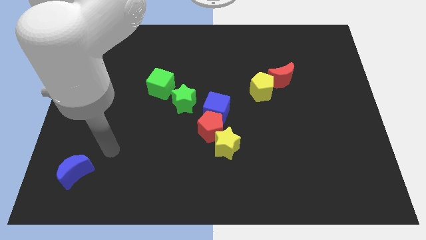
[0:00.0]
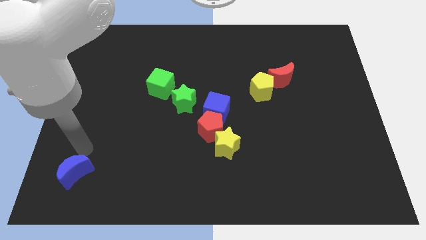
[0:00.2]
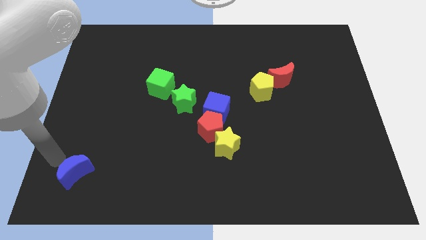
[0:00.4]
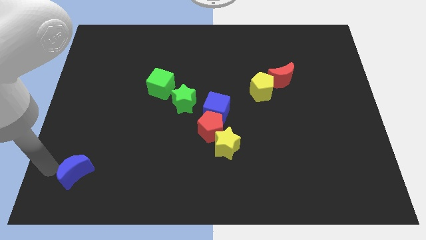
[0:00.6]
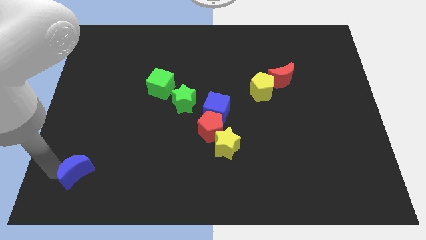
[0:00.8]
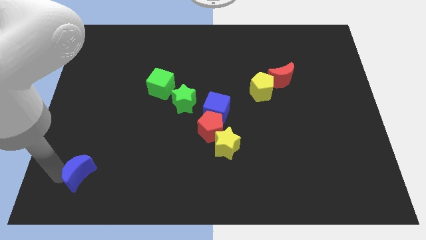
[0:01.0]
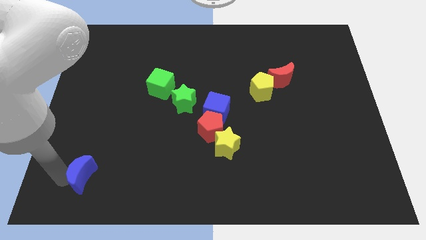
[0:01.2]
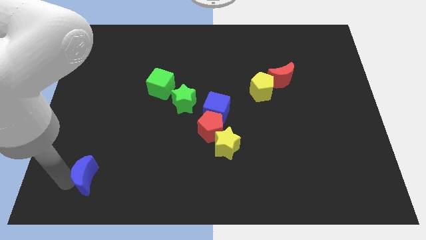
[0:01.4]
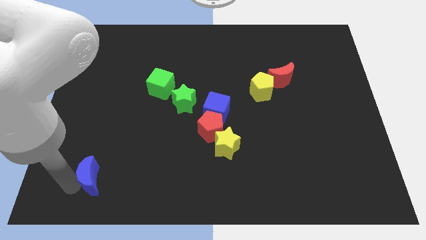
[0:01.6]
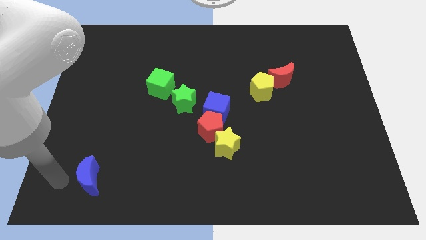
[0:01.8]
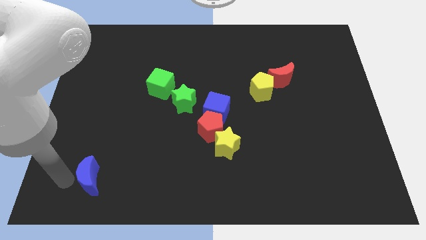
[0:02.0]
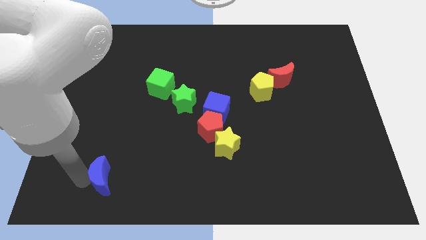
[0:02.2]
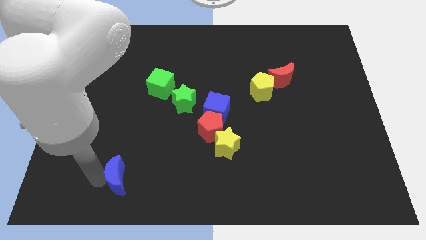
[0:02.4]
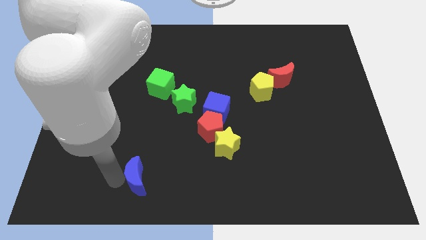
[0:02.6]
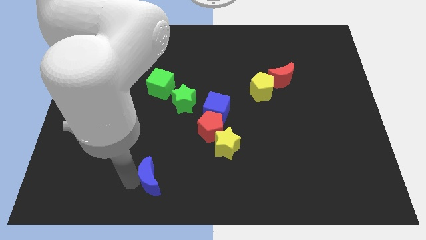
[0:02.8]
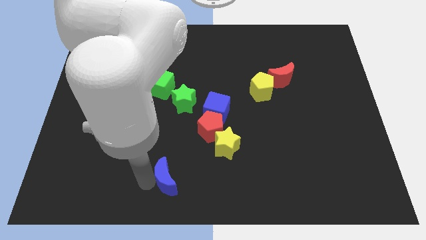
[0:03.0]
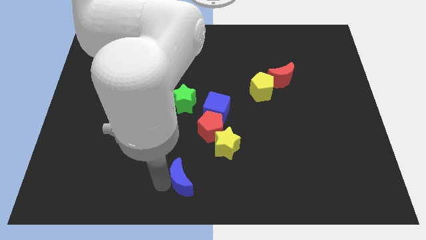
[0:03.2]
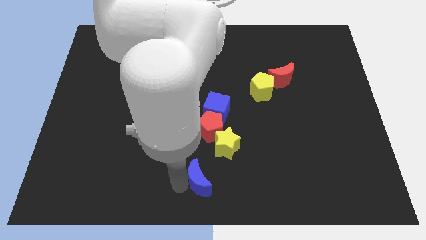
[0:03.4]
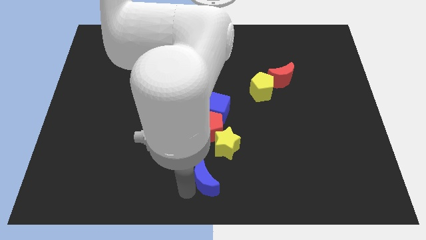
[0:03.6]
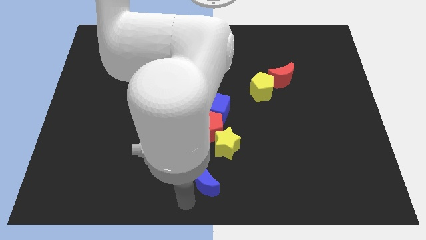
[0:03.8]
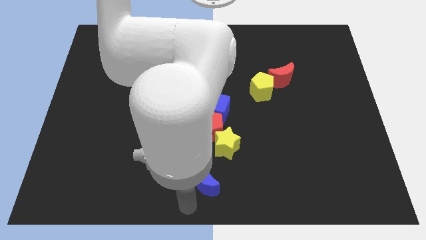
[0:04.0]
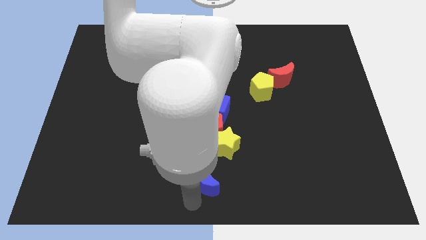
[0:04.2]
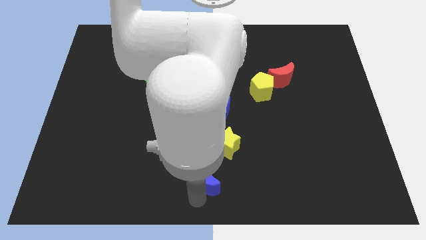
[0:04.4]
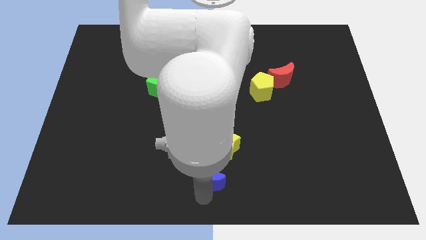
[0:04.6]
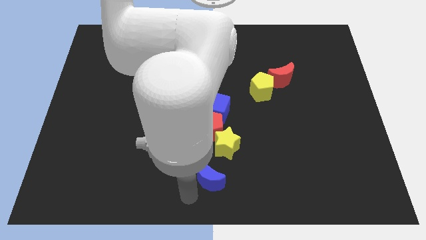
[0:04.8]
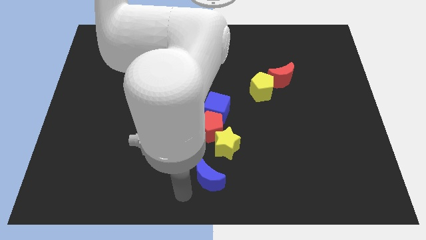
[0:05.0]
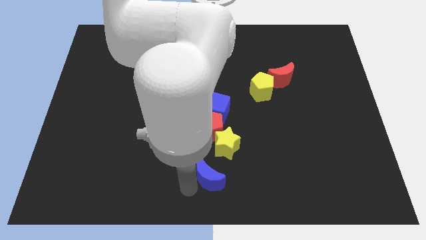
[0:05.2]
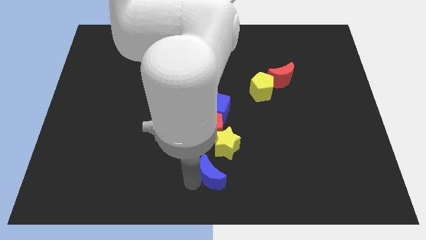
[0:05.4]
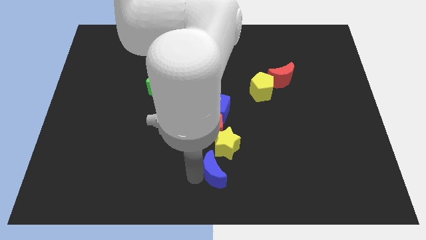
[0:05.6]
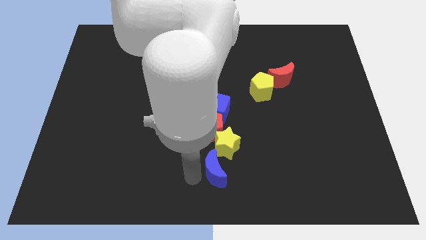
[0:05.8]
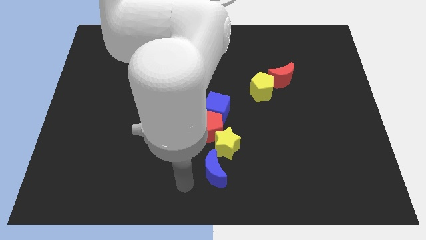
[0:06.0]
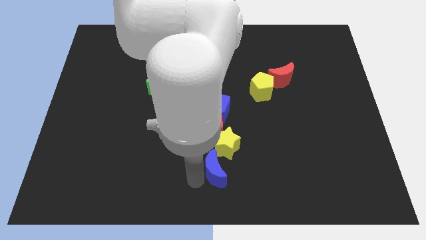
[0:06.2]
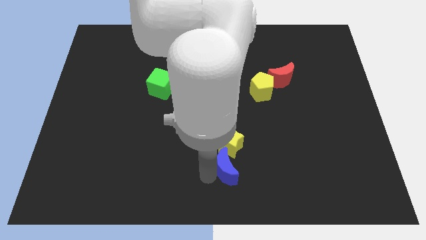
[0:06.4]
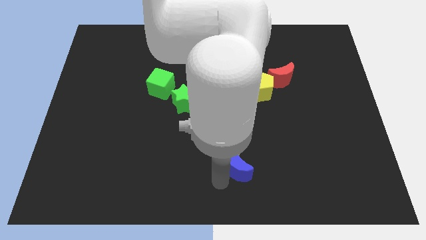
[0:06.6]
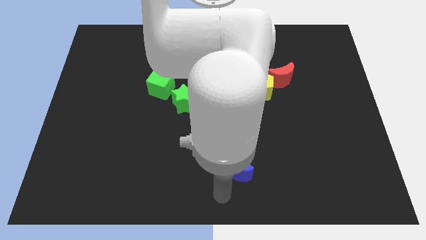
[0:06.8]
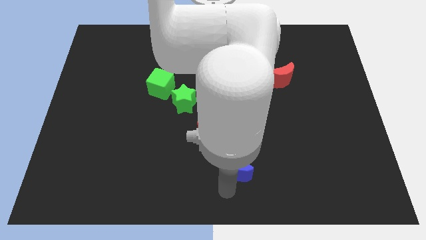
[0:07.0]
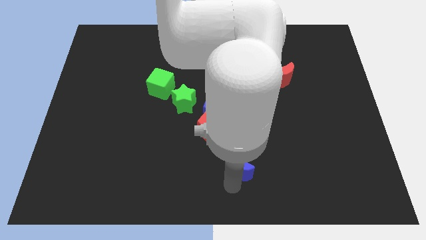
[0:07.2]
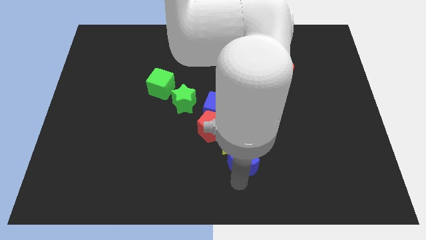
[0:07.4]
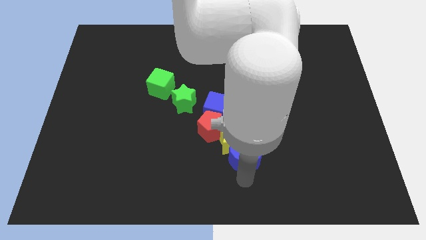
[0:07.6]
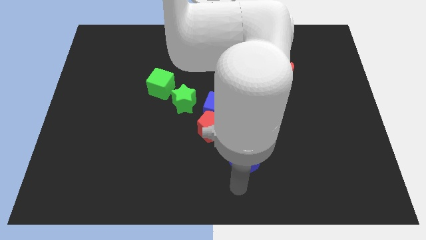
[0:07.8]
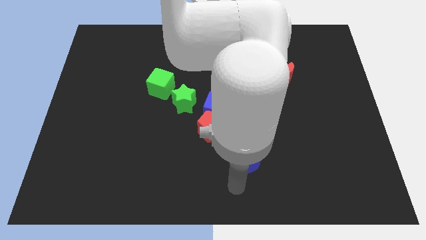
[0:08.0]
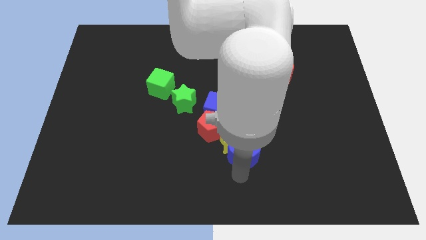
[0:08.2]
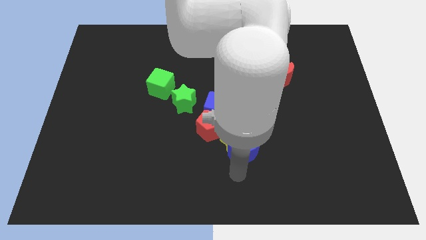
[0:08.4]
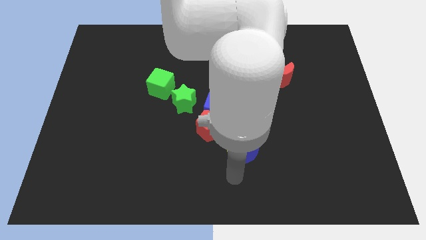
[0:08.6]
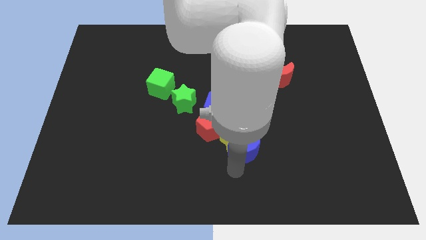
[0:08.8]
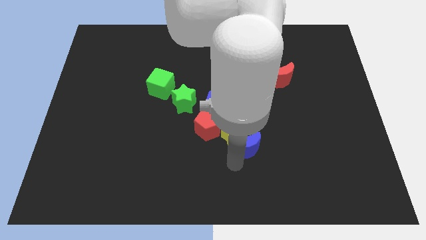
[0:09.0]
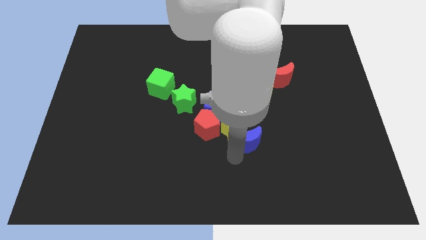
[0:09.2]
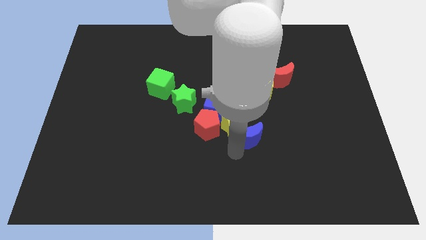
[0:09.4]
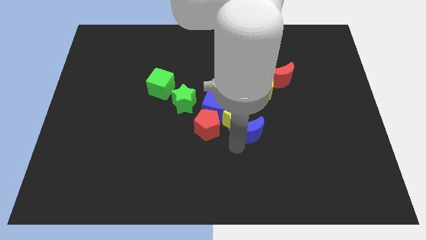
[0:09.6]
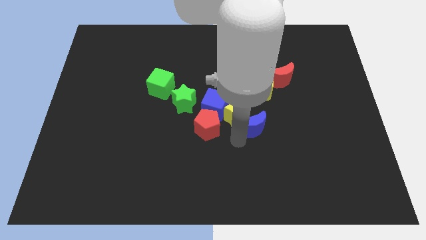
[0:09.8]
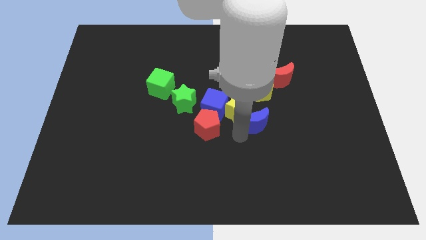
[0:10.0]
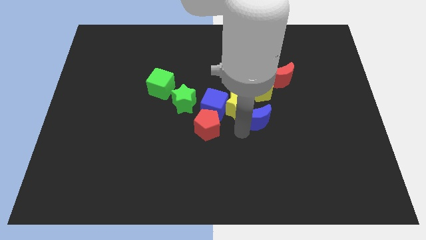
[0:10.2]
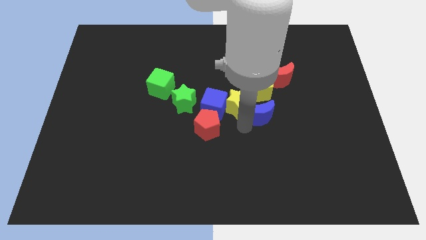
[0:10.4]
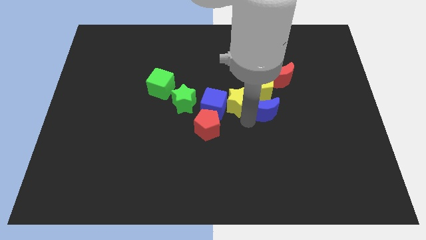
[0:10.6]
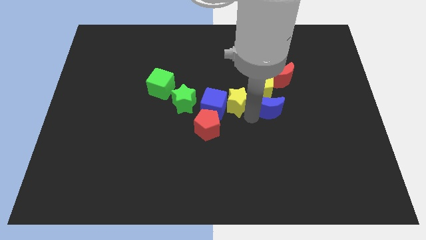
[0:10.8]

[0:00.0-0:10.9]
push the blue moon close to the yellow pentagon

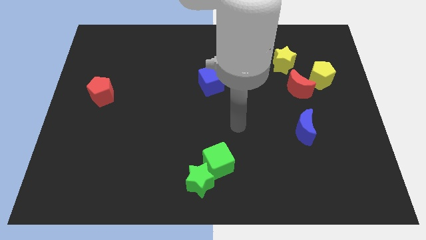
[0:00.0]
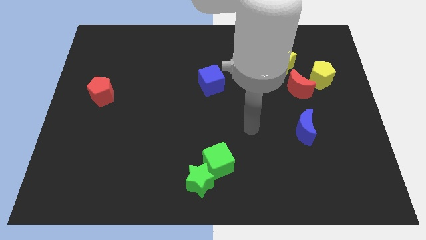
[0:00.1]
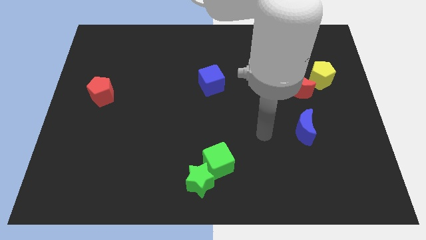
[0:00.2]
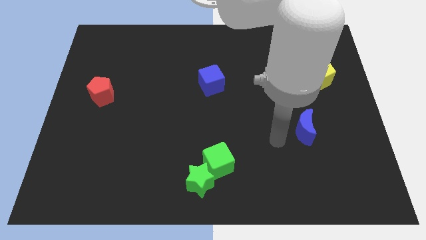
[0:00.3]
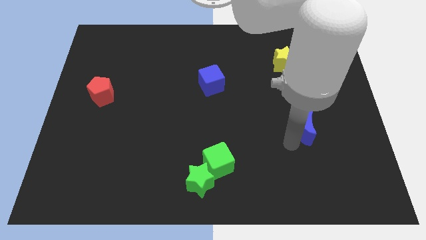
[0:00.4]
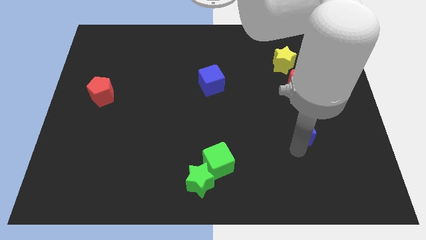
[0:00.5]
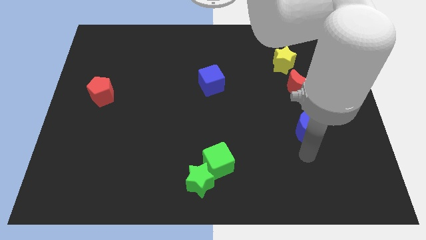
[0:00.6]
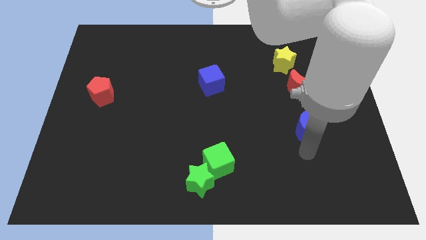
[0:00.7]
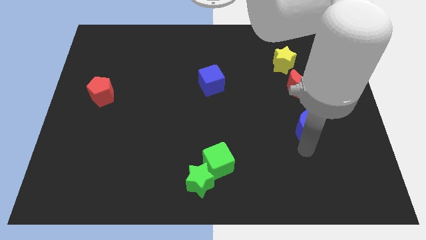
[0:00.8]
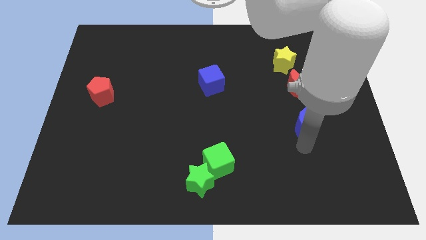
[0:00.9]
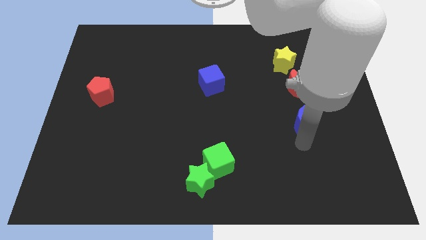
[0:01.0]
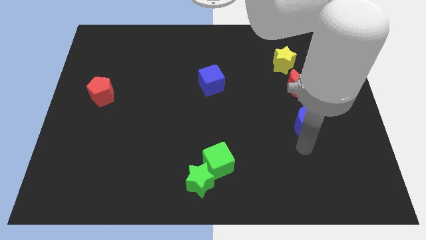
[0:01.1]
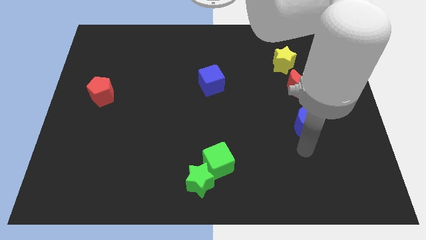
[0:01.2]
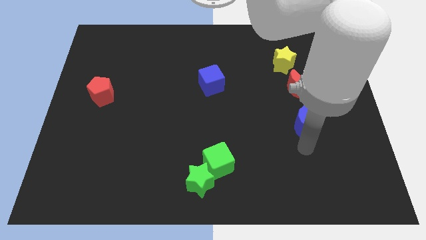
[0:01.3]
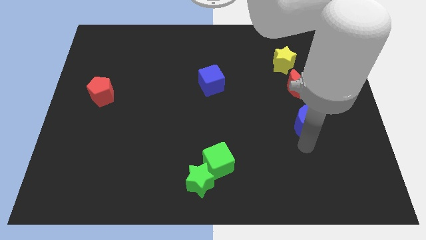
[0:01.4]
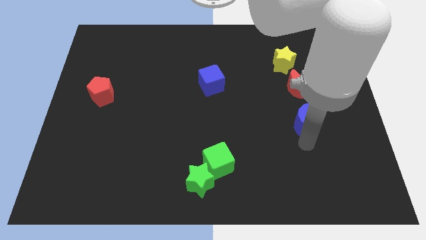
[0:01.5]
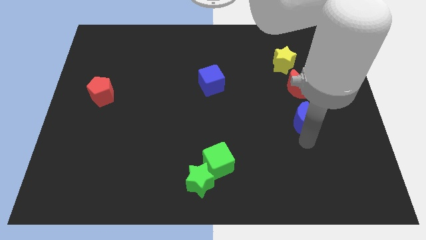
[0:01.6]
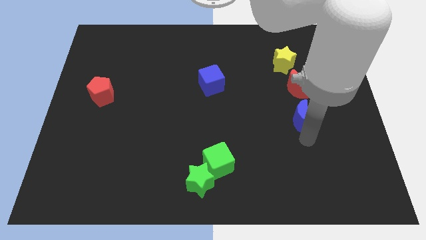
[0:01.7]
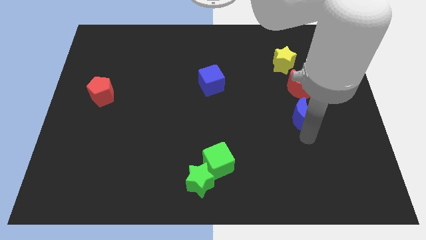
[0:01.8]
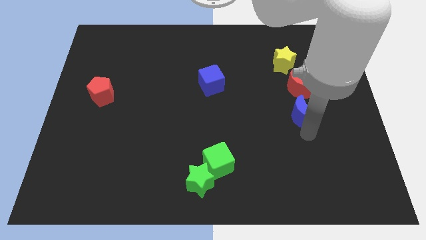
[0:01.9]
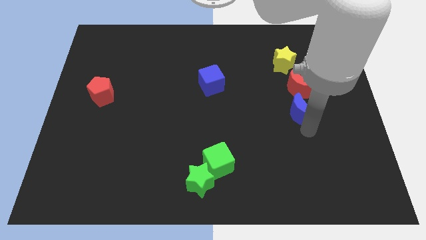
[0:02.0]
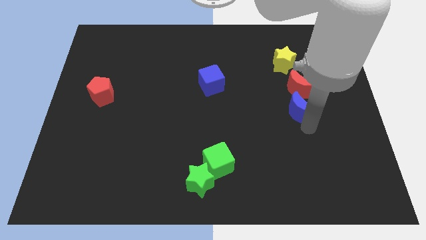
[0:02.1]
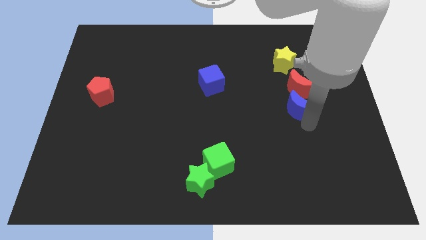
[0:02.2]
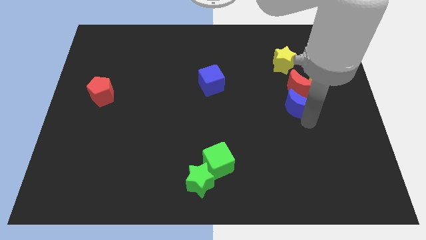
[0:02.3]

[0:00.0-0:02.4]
push the blue moon close to the red moon
